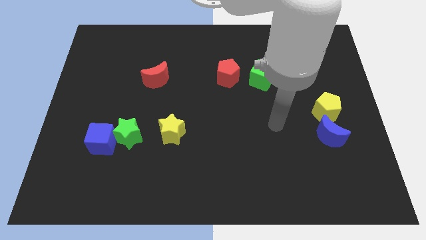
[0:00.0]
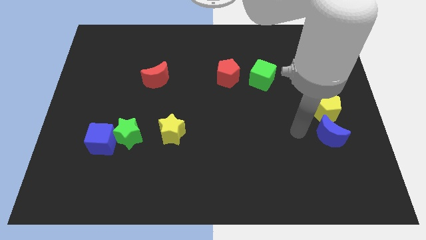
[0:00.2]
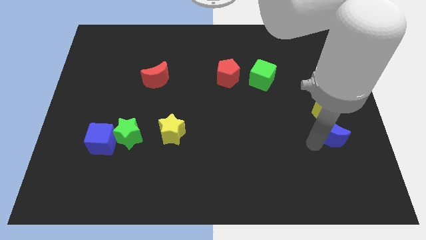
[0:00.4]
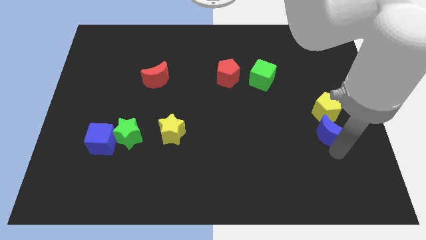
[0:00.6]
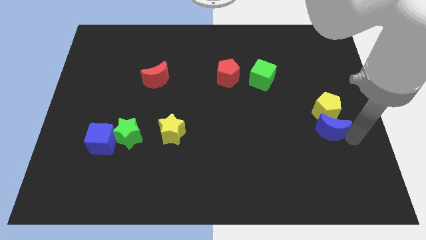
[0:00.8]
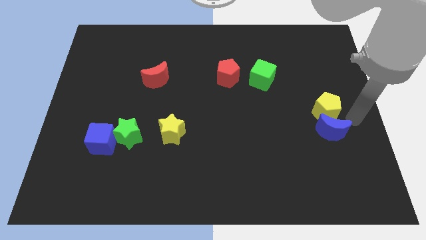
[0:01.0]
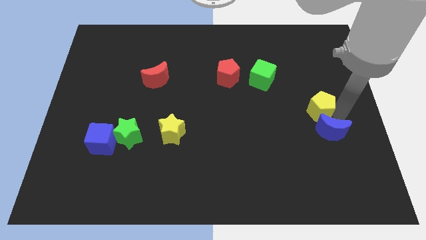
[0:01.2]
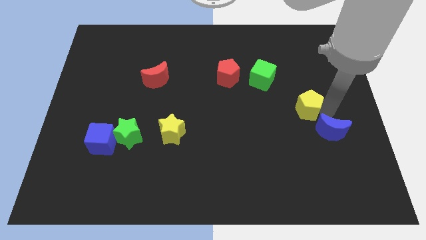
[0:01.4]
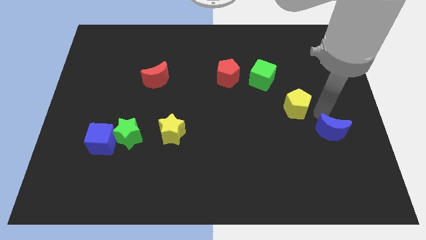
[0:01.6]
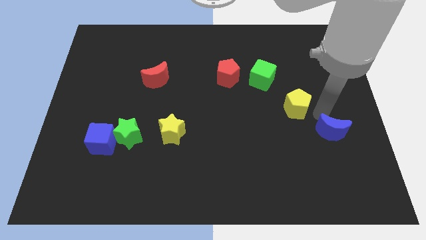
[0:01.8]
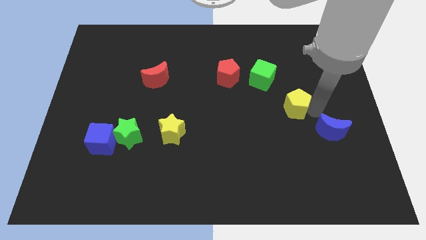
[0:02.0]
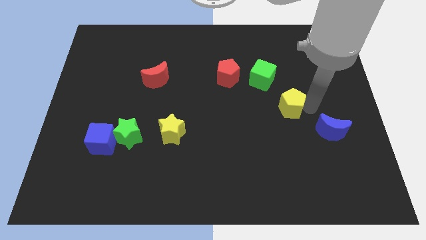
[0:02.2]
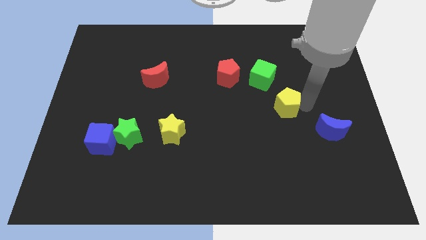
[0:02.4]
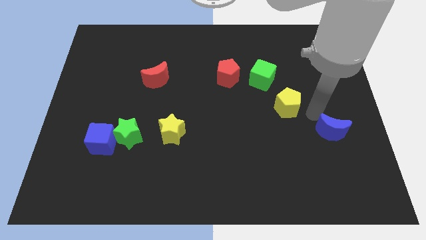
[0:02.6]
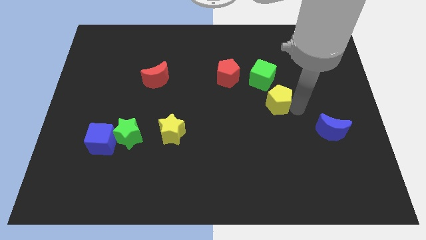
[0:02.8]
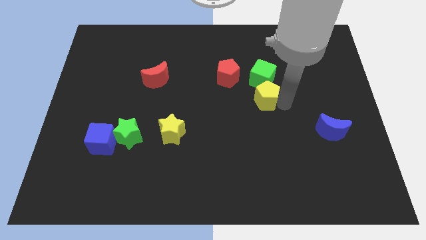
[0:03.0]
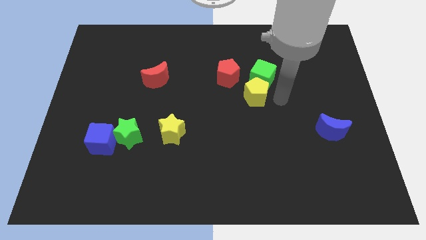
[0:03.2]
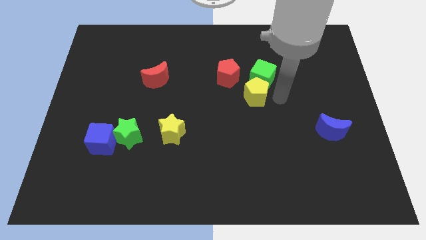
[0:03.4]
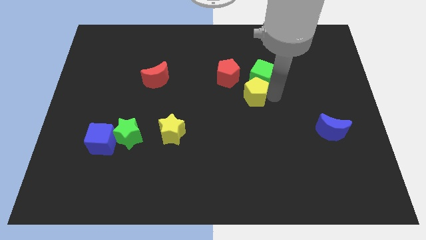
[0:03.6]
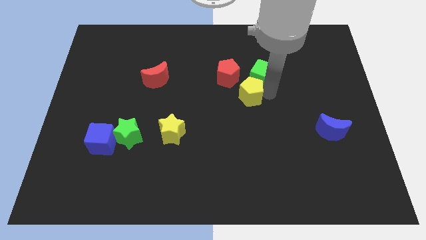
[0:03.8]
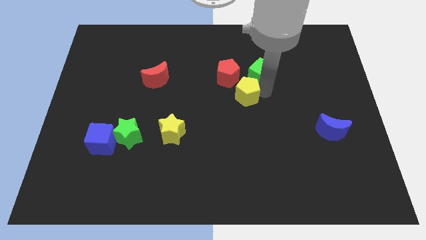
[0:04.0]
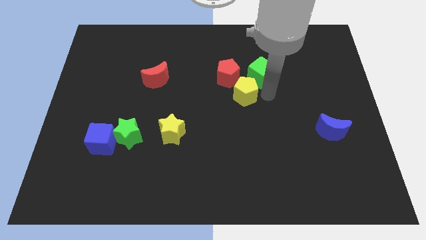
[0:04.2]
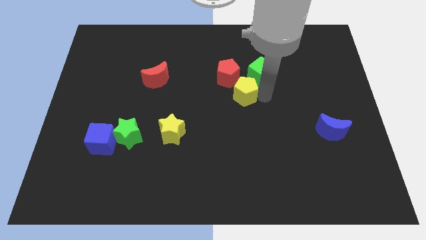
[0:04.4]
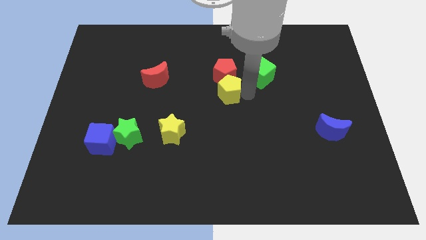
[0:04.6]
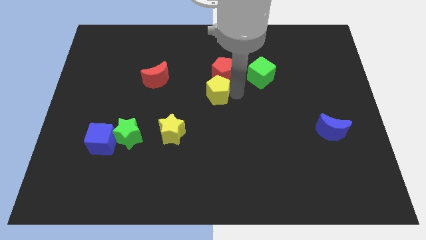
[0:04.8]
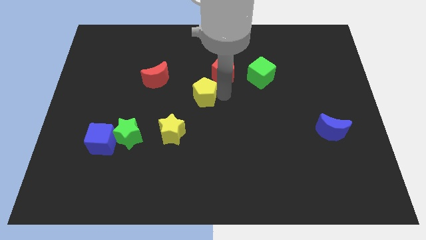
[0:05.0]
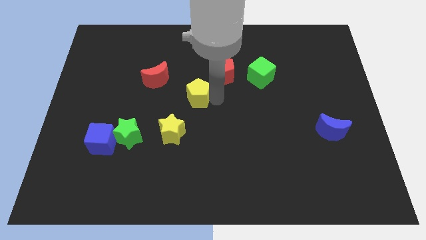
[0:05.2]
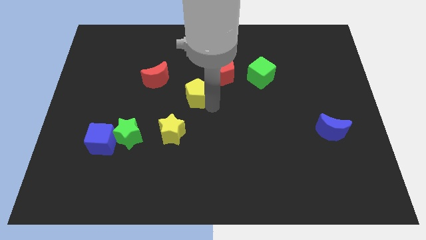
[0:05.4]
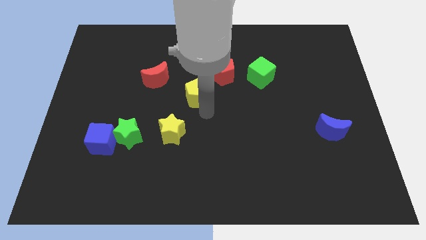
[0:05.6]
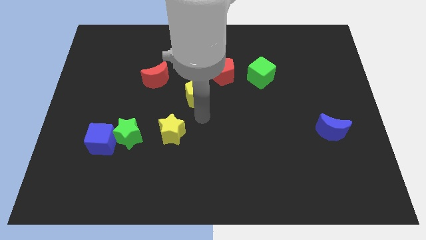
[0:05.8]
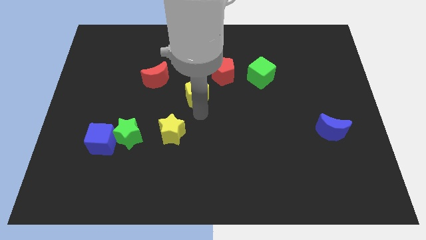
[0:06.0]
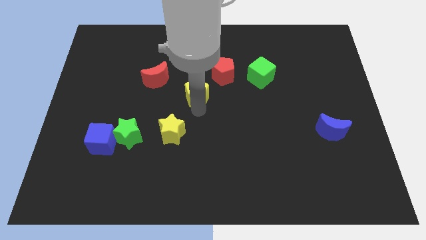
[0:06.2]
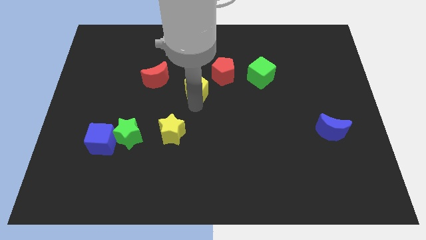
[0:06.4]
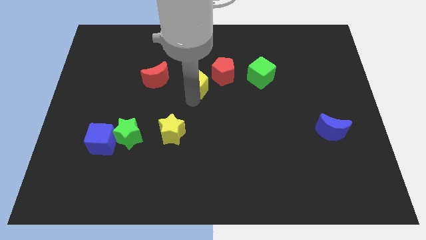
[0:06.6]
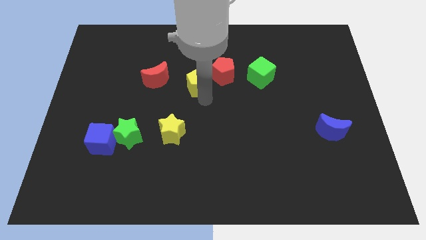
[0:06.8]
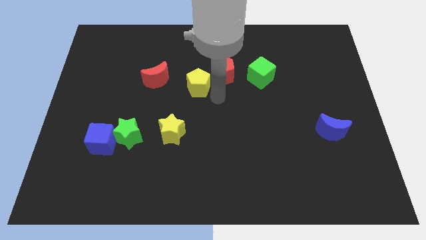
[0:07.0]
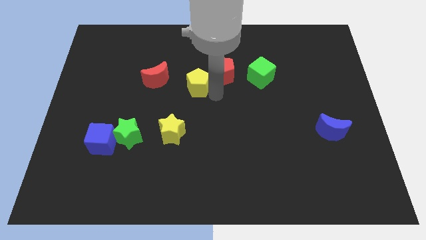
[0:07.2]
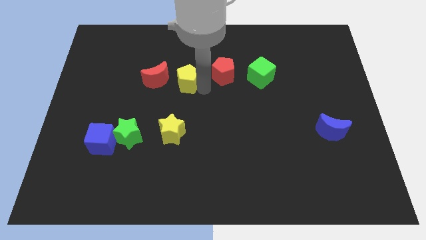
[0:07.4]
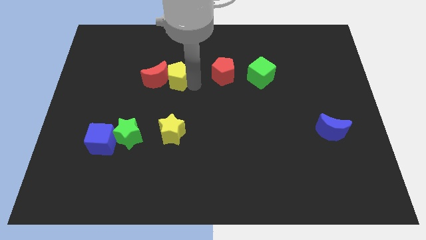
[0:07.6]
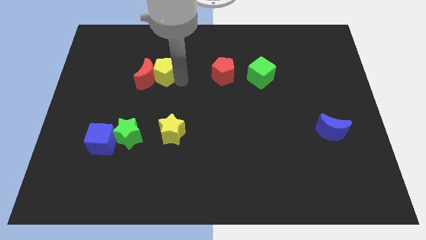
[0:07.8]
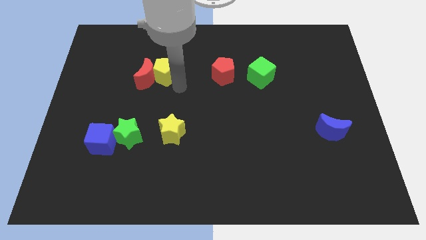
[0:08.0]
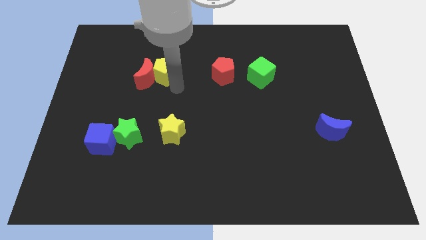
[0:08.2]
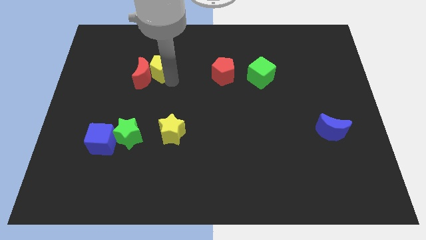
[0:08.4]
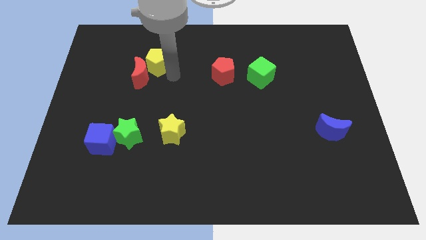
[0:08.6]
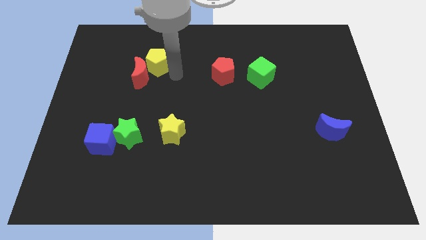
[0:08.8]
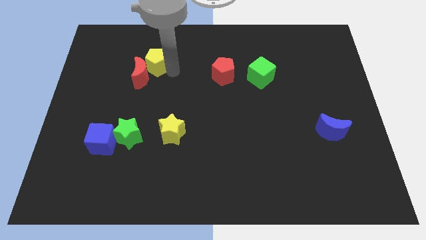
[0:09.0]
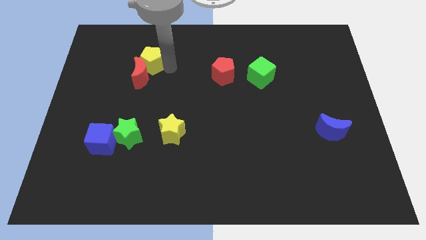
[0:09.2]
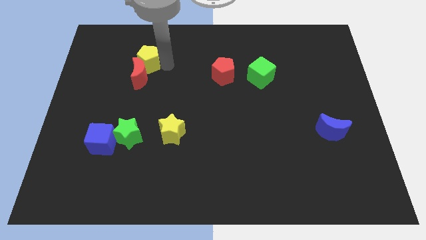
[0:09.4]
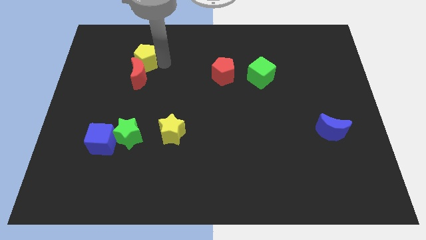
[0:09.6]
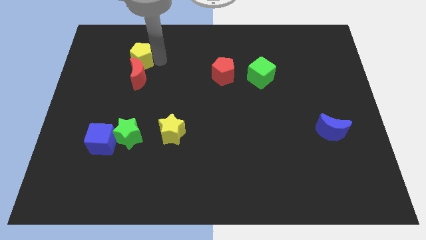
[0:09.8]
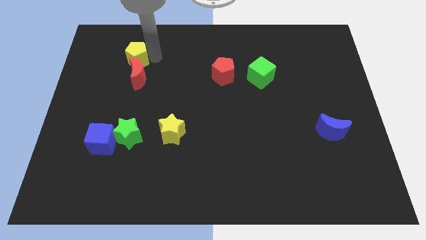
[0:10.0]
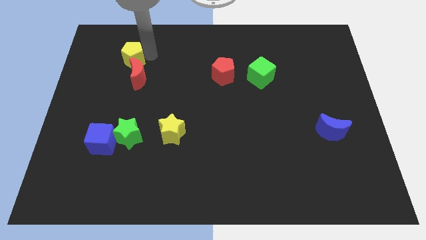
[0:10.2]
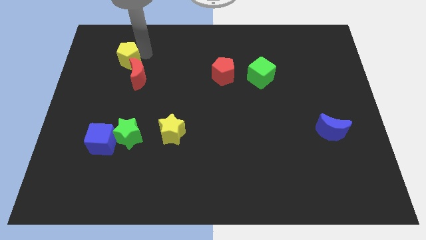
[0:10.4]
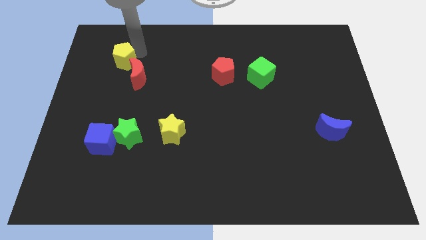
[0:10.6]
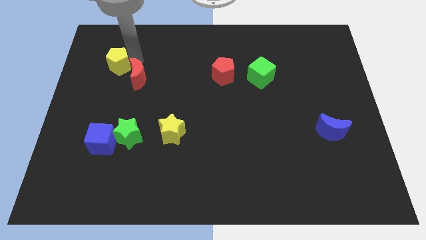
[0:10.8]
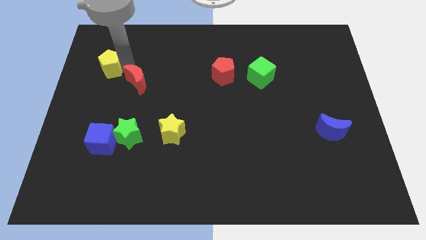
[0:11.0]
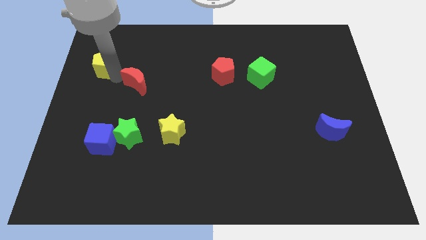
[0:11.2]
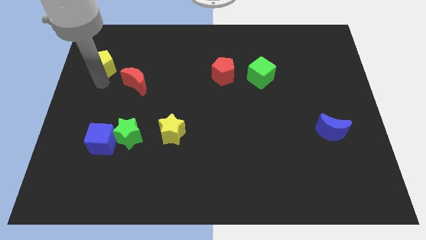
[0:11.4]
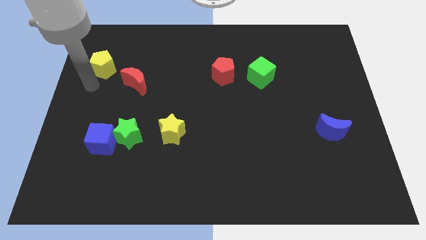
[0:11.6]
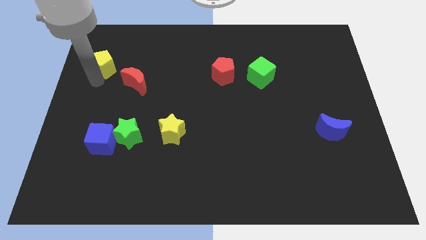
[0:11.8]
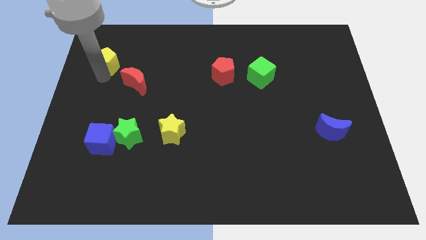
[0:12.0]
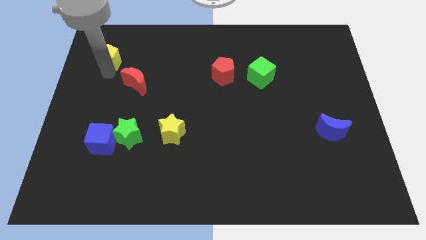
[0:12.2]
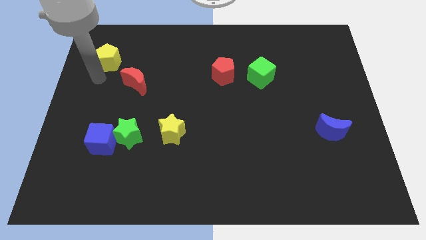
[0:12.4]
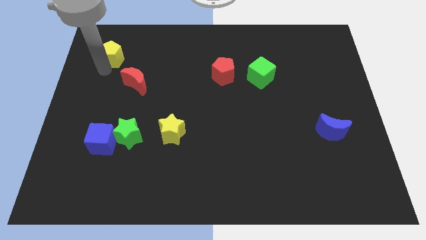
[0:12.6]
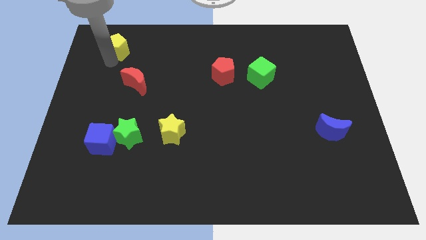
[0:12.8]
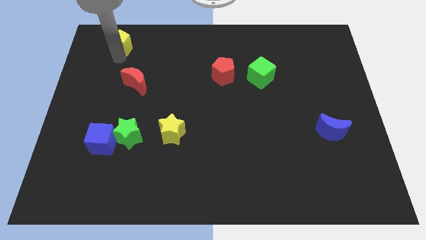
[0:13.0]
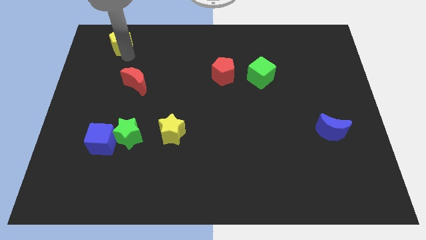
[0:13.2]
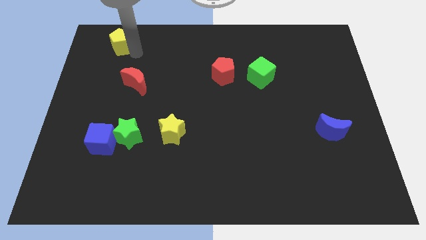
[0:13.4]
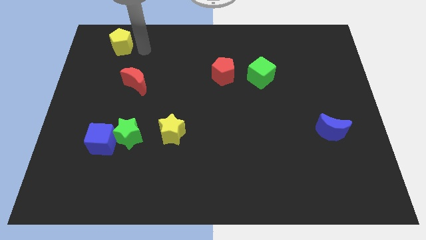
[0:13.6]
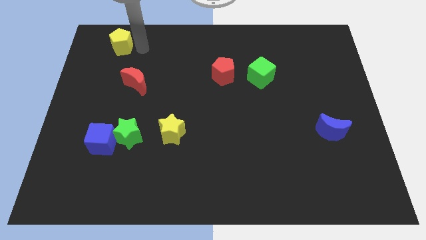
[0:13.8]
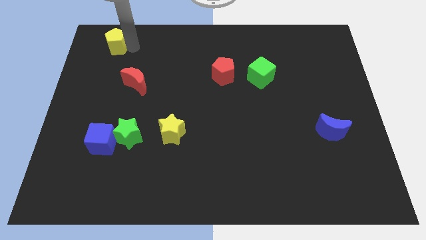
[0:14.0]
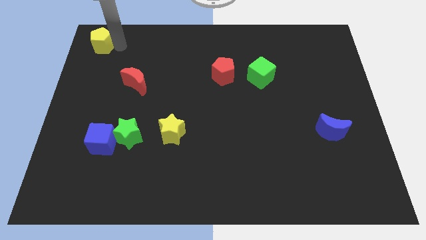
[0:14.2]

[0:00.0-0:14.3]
put the yellow pentagon to the top left of the board
